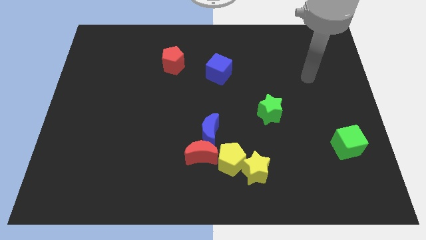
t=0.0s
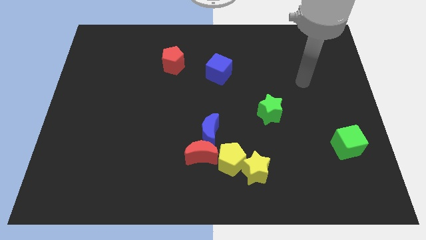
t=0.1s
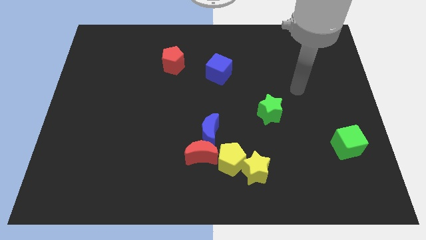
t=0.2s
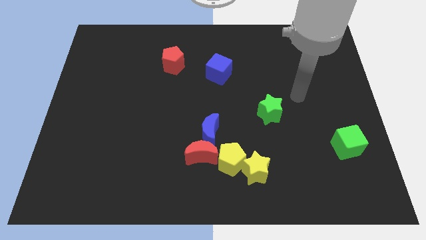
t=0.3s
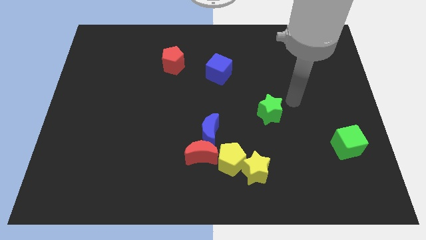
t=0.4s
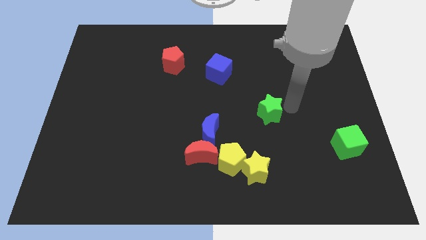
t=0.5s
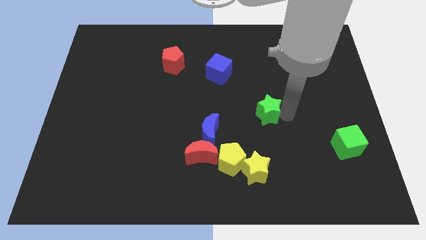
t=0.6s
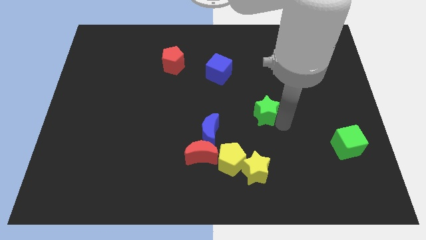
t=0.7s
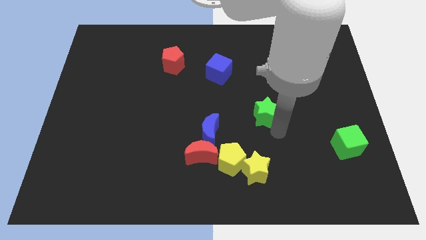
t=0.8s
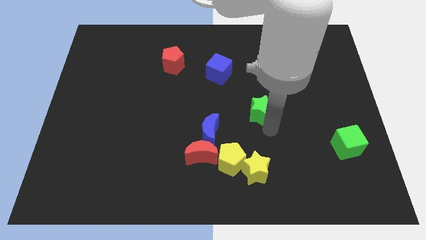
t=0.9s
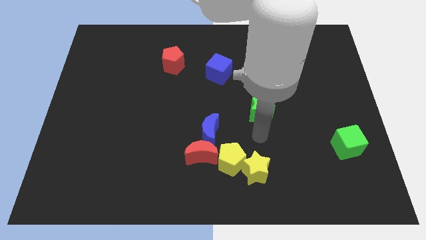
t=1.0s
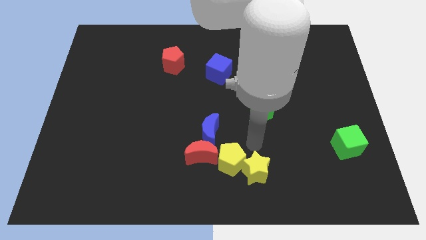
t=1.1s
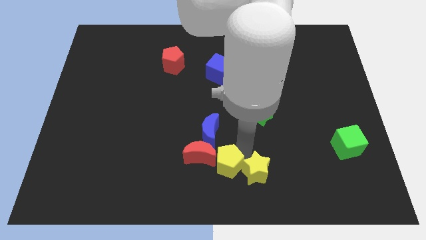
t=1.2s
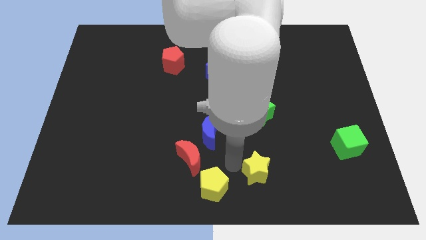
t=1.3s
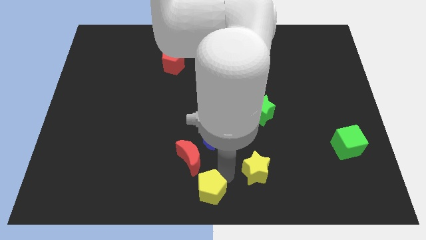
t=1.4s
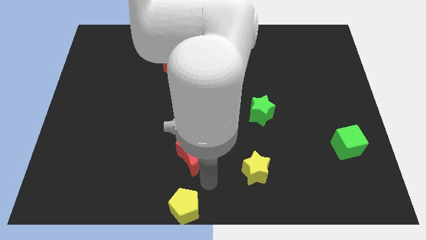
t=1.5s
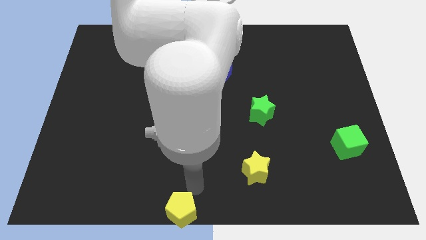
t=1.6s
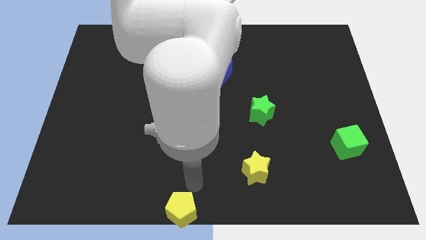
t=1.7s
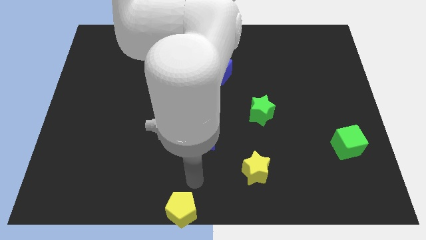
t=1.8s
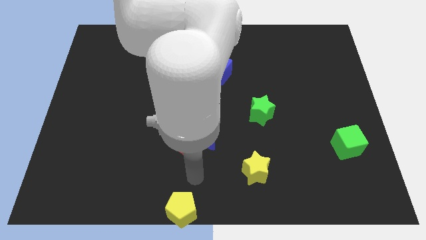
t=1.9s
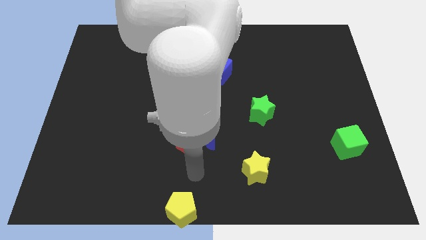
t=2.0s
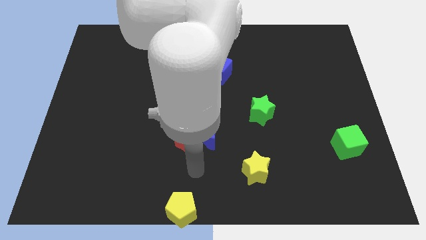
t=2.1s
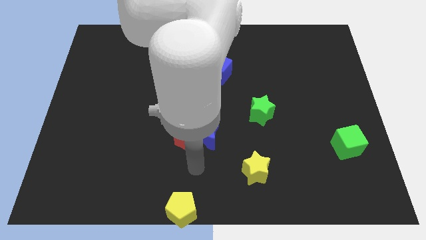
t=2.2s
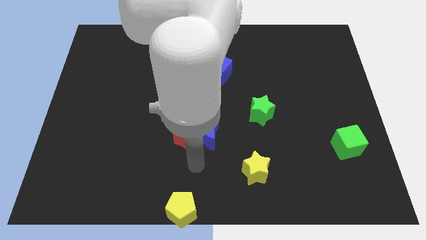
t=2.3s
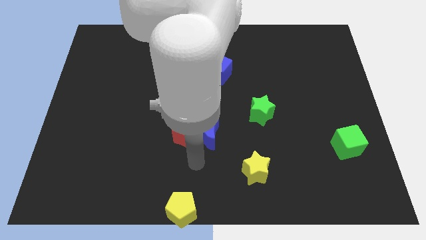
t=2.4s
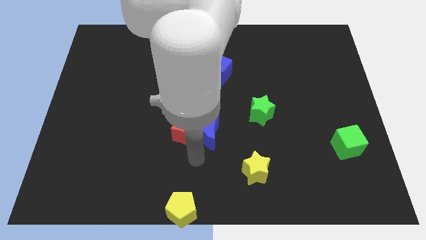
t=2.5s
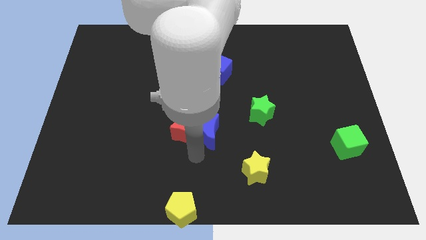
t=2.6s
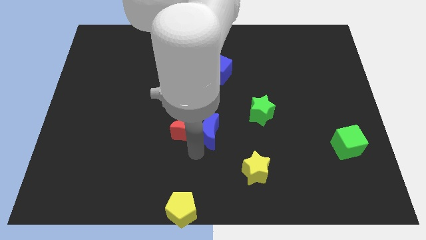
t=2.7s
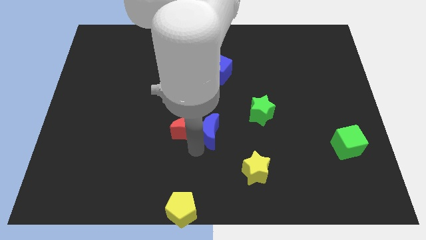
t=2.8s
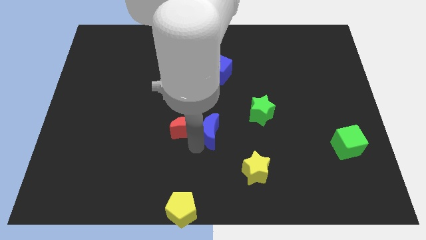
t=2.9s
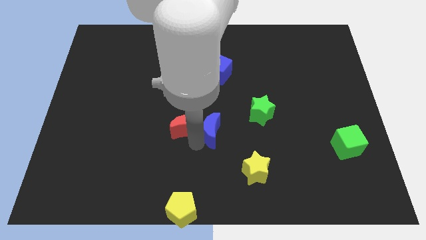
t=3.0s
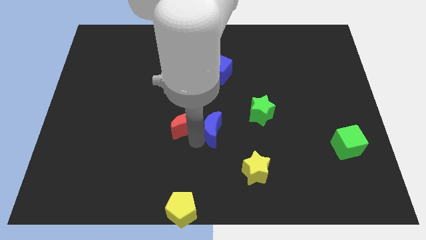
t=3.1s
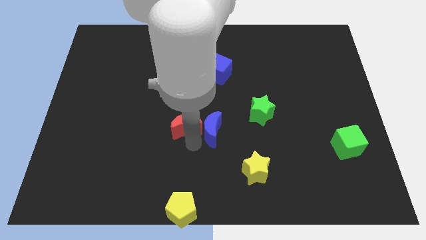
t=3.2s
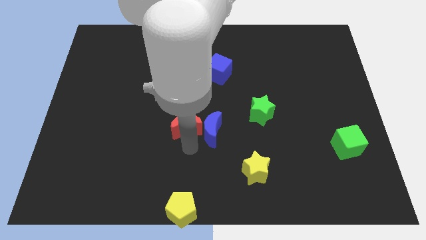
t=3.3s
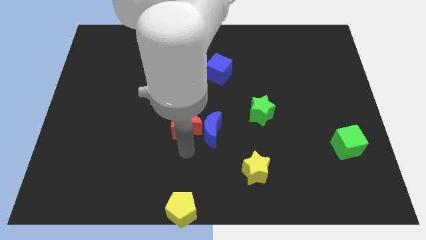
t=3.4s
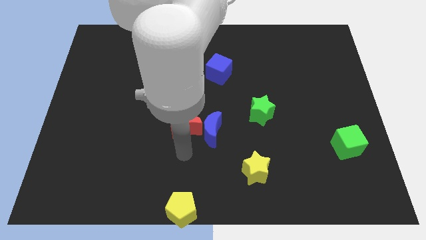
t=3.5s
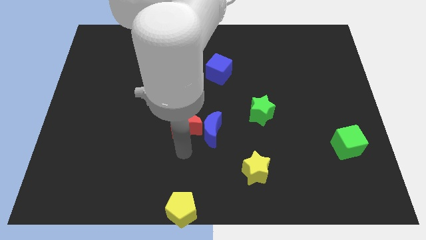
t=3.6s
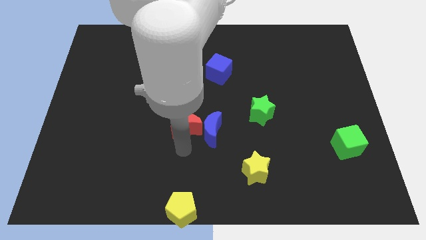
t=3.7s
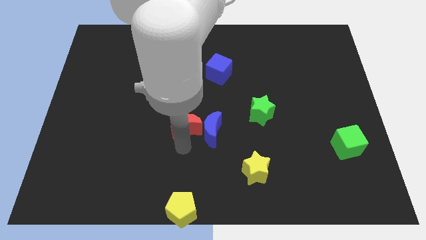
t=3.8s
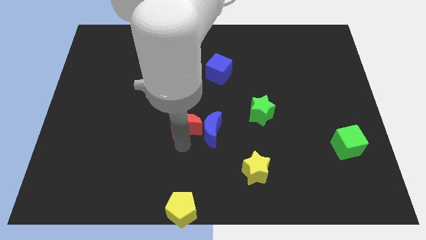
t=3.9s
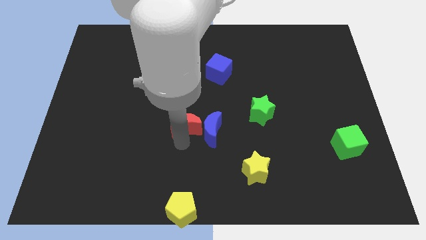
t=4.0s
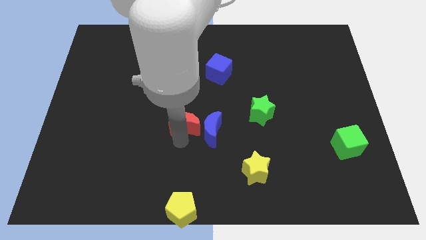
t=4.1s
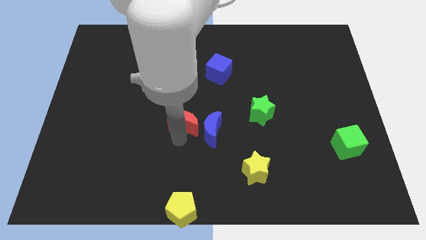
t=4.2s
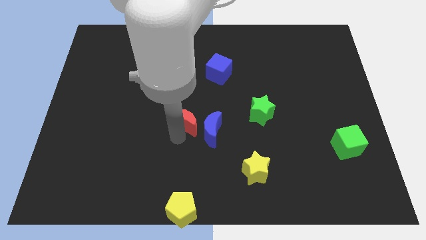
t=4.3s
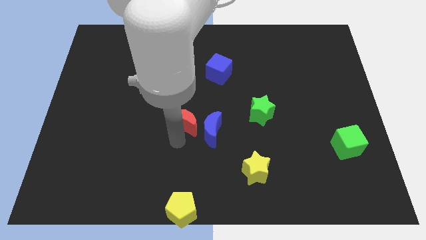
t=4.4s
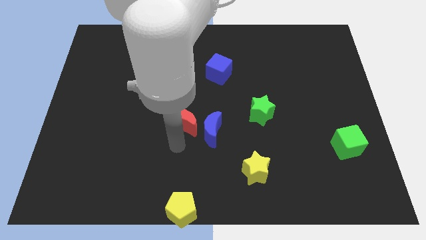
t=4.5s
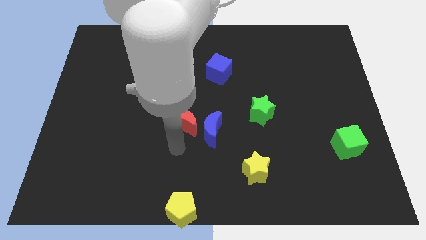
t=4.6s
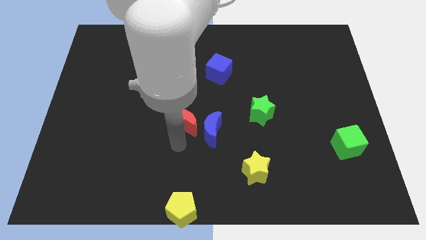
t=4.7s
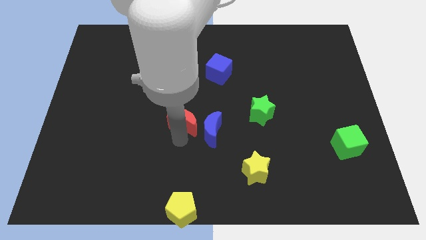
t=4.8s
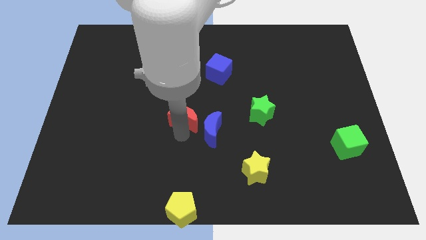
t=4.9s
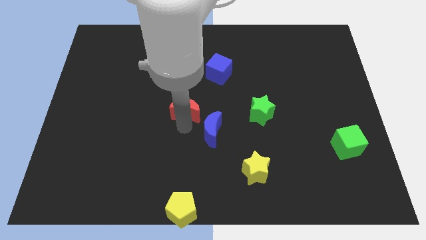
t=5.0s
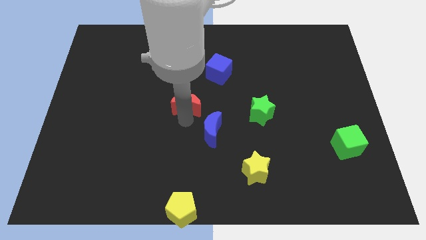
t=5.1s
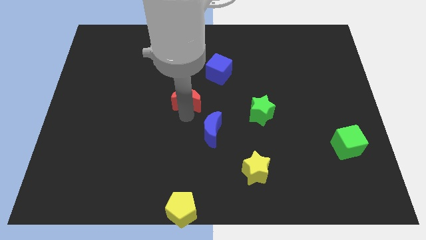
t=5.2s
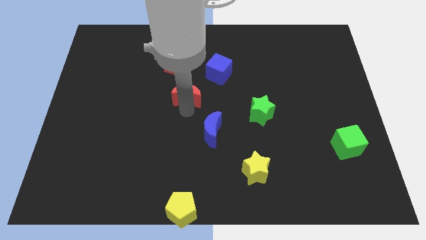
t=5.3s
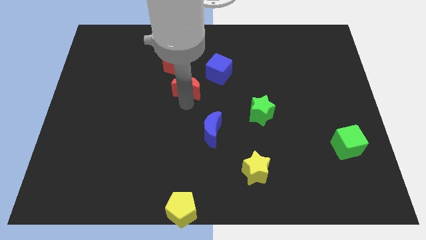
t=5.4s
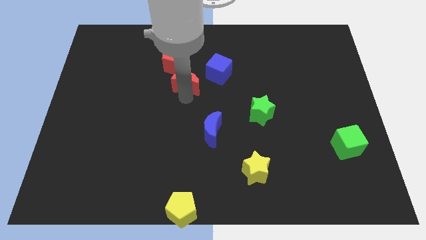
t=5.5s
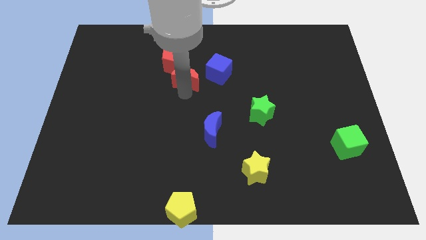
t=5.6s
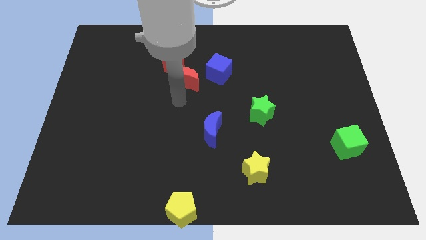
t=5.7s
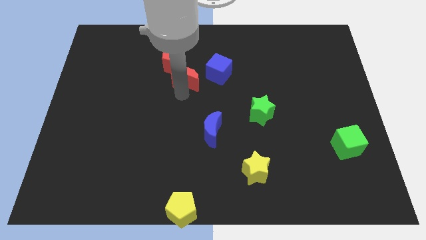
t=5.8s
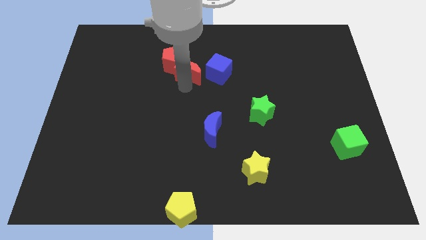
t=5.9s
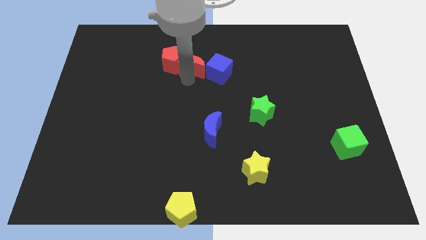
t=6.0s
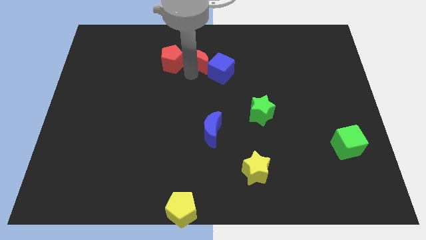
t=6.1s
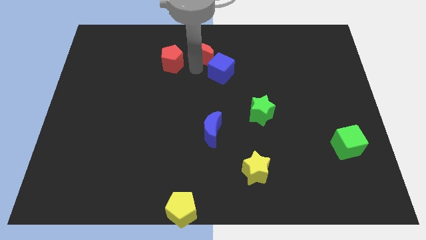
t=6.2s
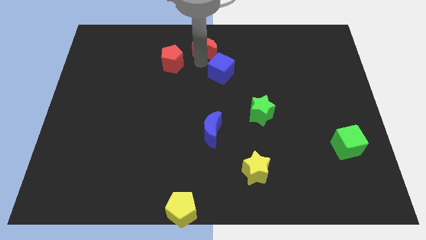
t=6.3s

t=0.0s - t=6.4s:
push the red moon to the towards your base

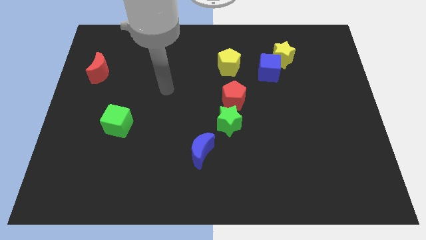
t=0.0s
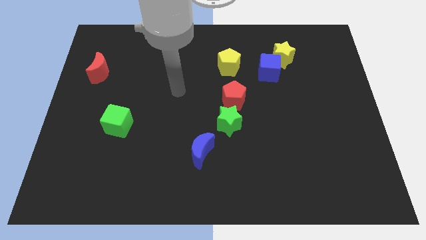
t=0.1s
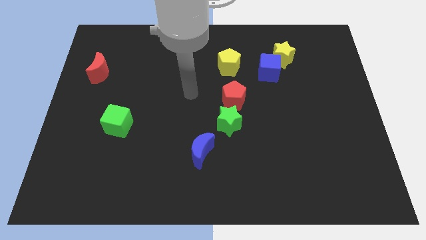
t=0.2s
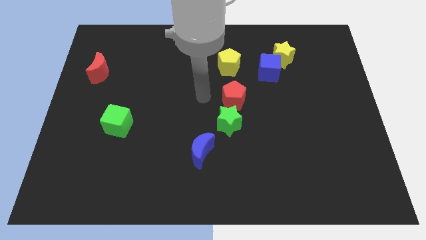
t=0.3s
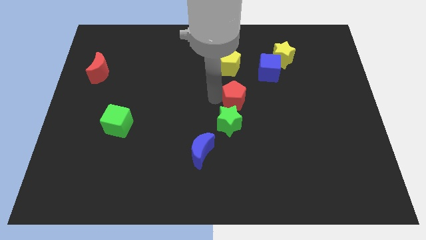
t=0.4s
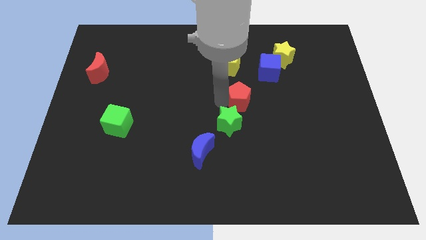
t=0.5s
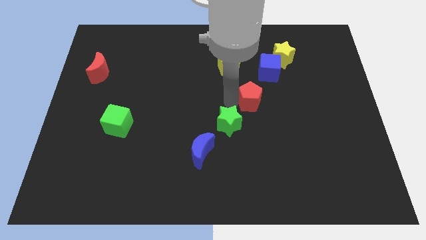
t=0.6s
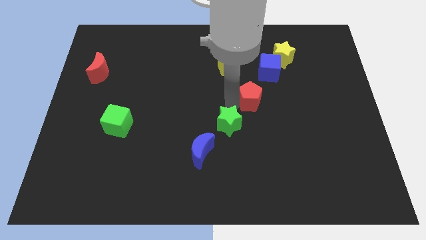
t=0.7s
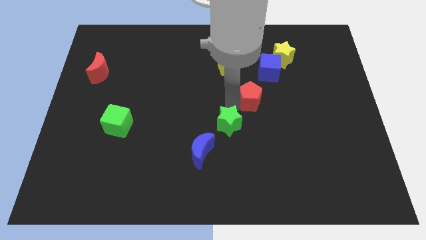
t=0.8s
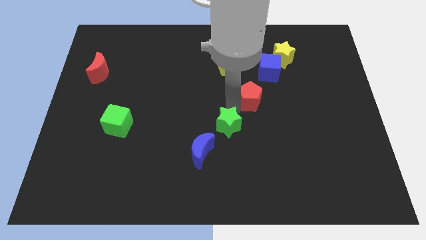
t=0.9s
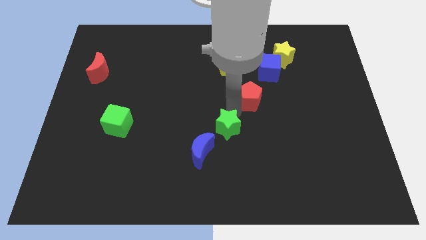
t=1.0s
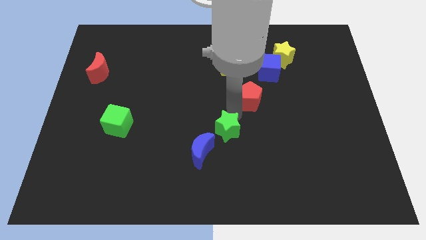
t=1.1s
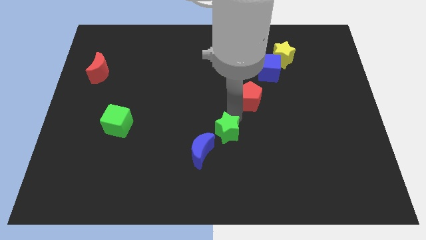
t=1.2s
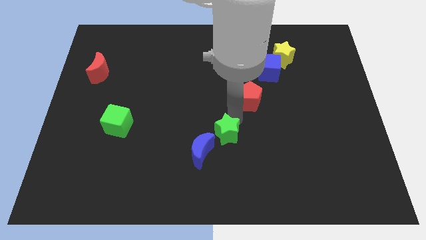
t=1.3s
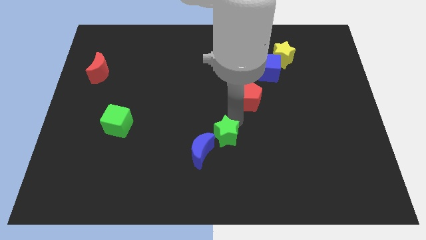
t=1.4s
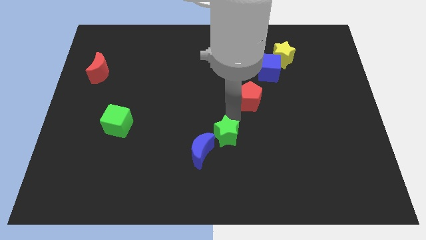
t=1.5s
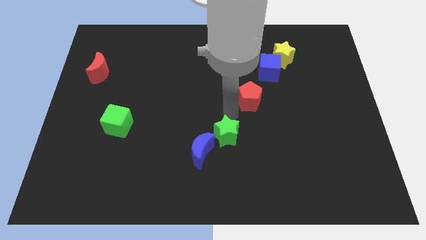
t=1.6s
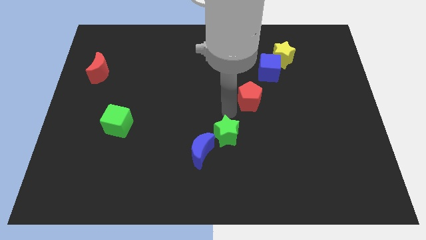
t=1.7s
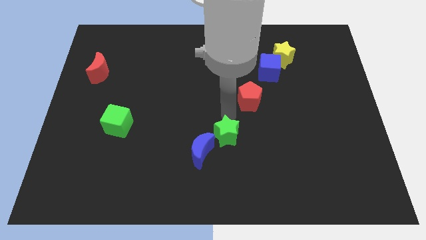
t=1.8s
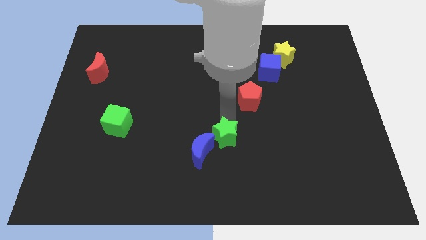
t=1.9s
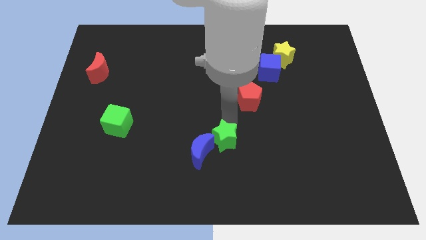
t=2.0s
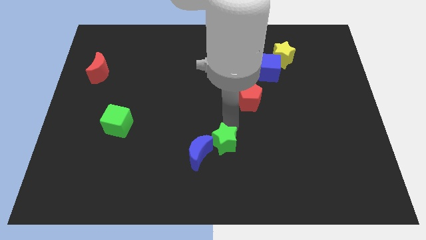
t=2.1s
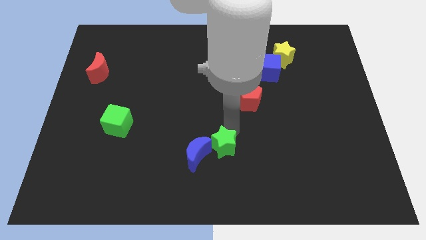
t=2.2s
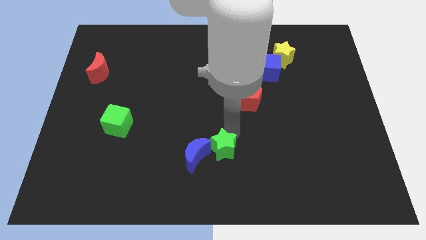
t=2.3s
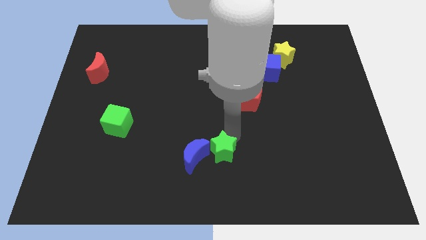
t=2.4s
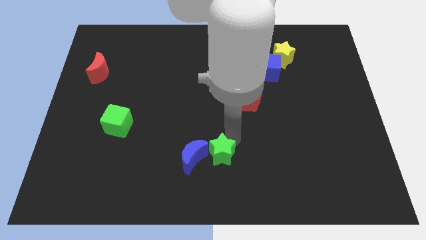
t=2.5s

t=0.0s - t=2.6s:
slide the green star to the bottom
